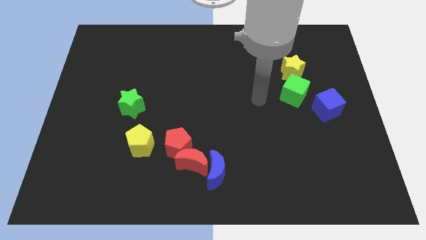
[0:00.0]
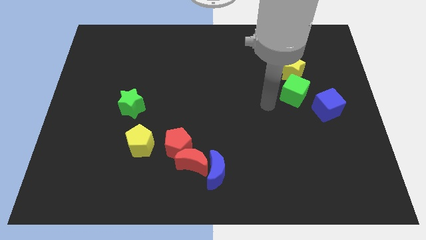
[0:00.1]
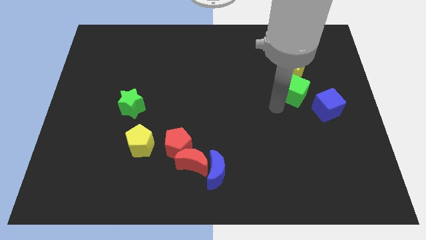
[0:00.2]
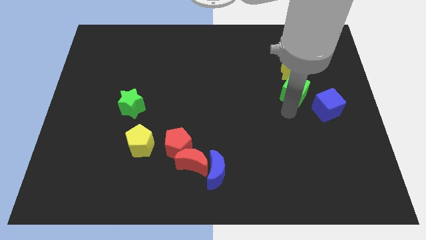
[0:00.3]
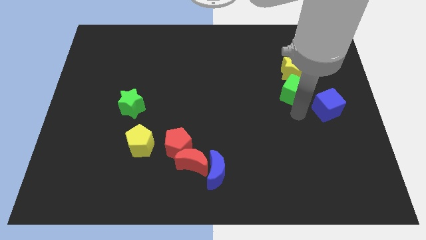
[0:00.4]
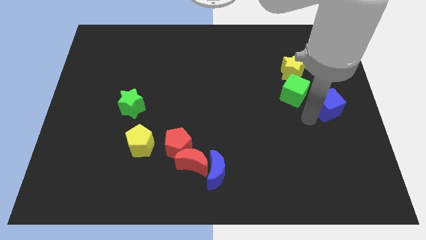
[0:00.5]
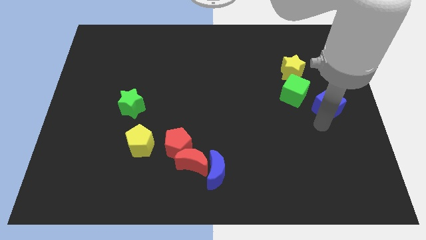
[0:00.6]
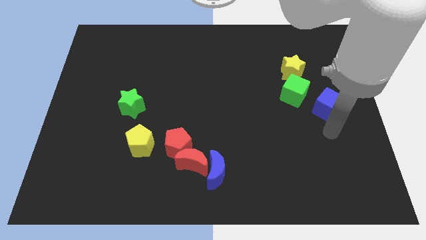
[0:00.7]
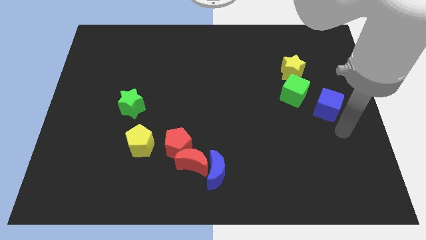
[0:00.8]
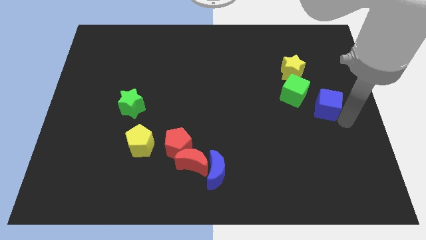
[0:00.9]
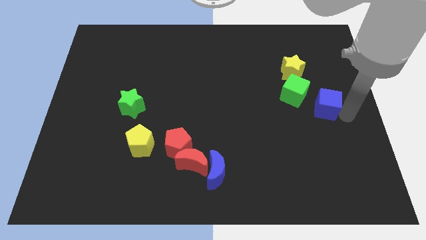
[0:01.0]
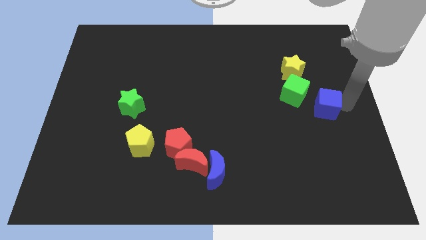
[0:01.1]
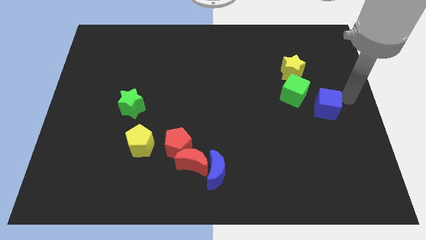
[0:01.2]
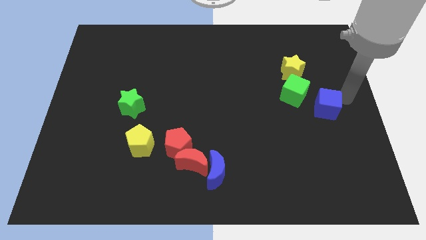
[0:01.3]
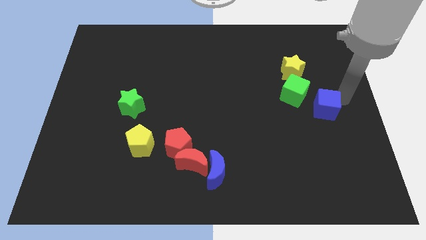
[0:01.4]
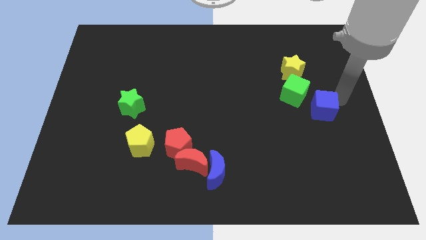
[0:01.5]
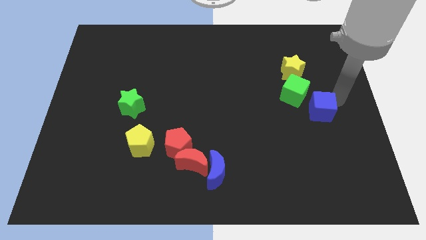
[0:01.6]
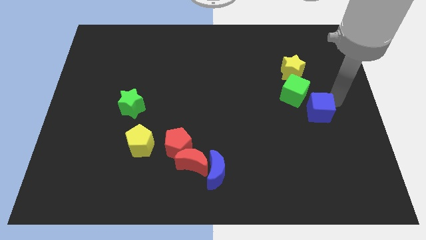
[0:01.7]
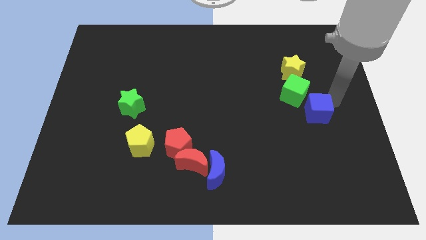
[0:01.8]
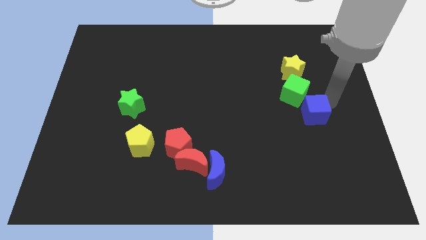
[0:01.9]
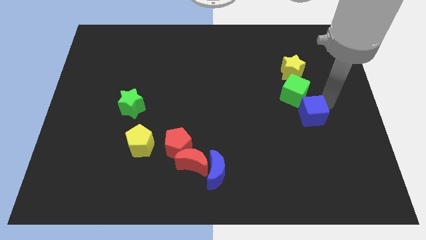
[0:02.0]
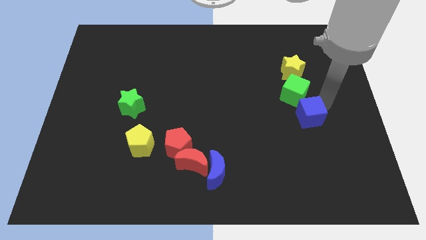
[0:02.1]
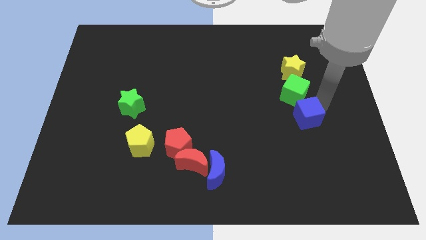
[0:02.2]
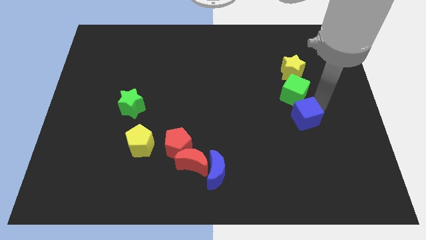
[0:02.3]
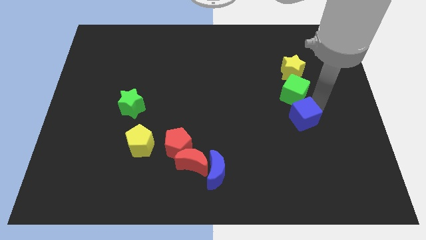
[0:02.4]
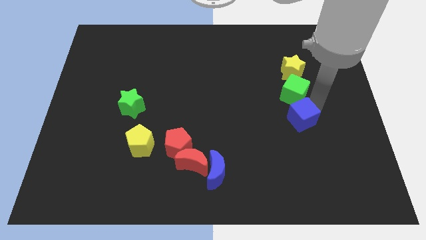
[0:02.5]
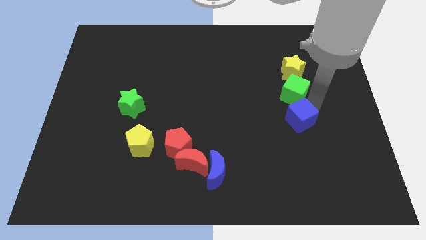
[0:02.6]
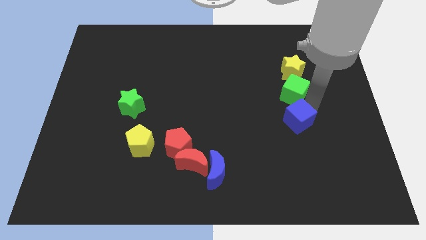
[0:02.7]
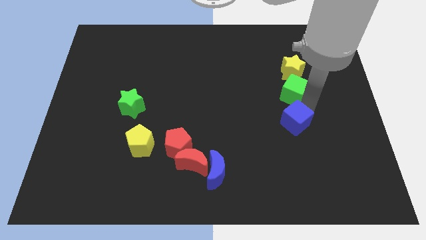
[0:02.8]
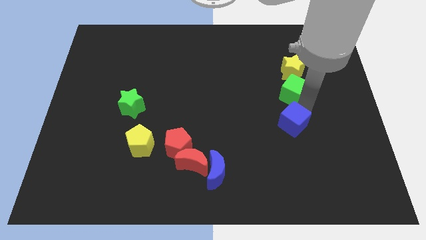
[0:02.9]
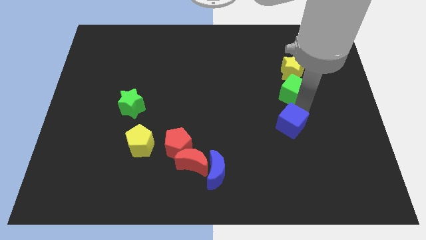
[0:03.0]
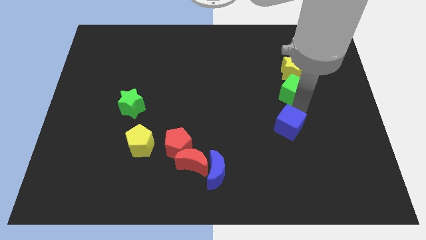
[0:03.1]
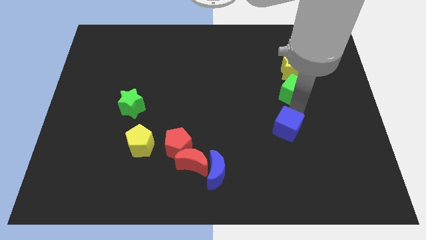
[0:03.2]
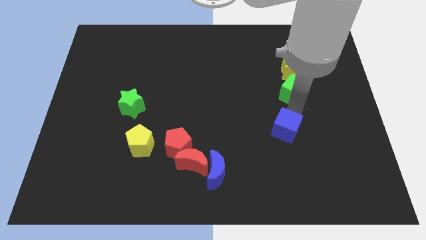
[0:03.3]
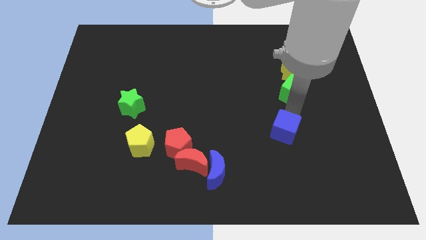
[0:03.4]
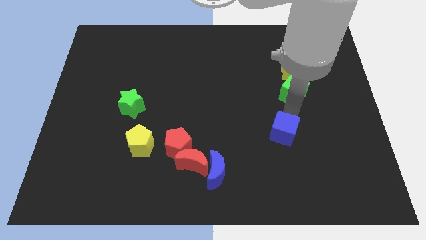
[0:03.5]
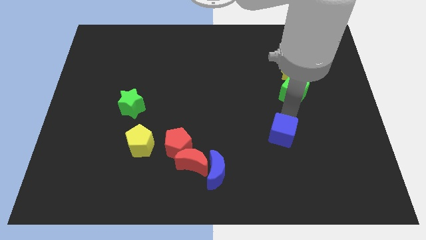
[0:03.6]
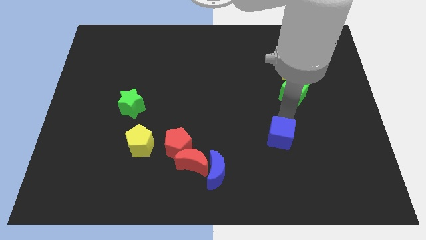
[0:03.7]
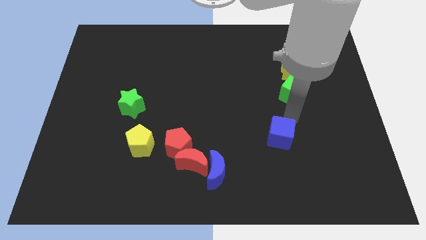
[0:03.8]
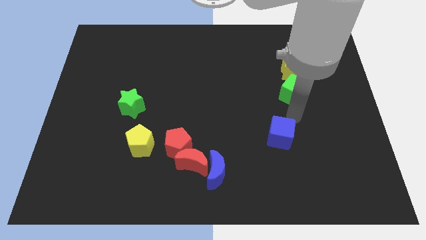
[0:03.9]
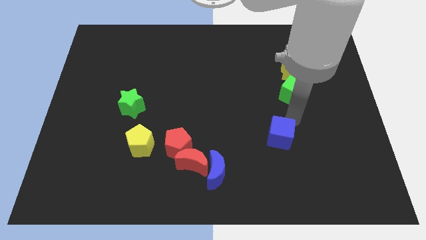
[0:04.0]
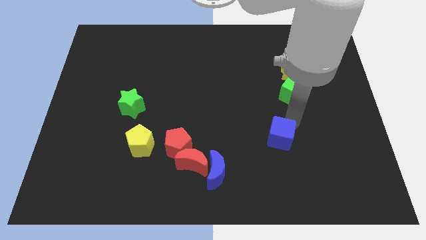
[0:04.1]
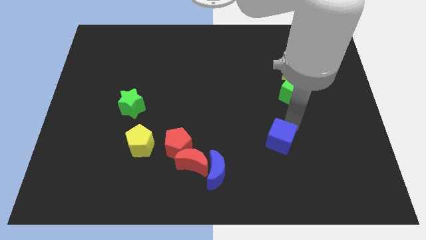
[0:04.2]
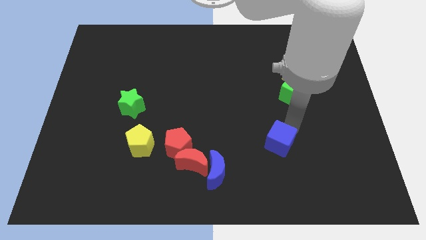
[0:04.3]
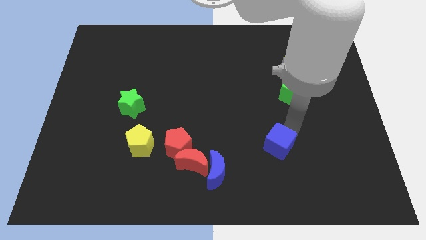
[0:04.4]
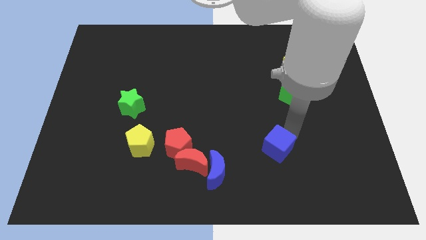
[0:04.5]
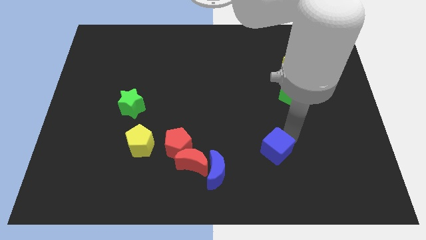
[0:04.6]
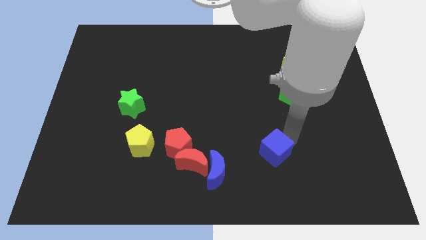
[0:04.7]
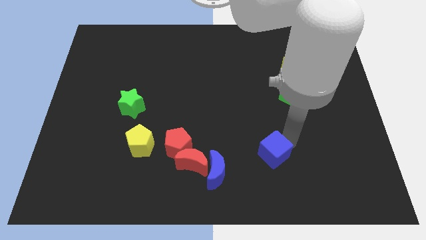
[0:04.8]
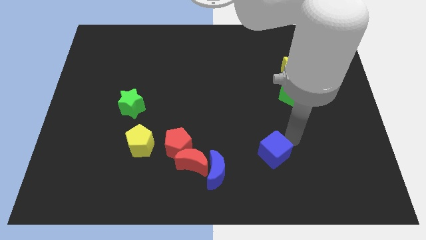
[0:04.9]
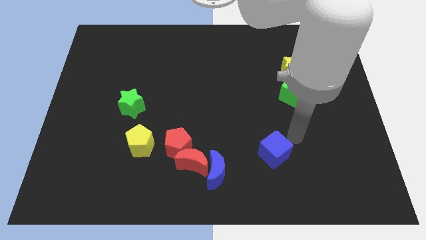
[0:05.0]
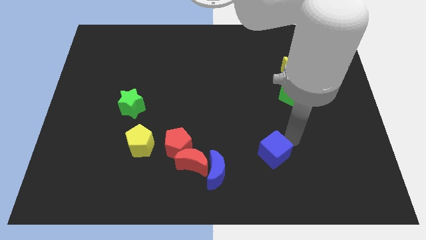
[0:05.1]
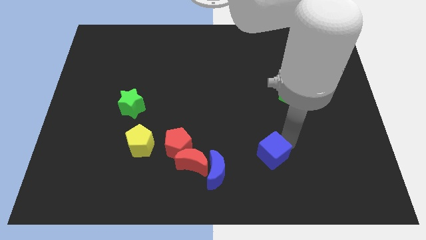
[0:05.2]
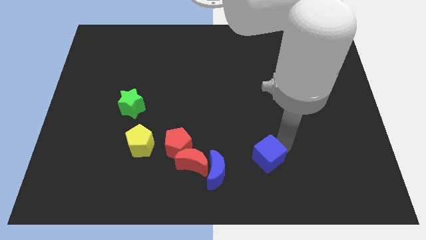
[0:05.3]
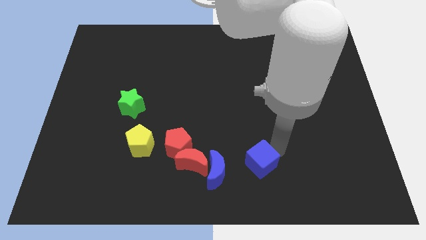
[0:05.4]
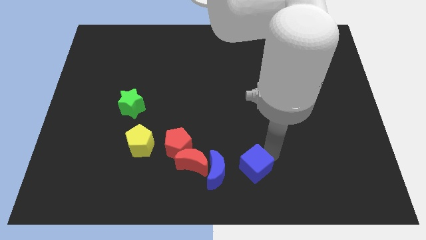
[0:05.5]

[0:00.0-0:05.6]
move the blue cube to the bottom side

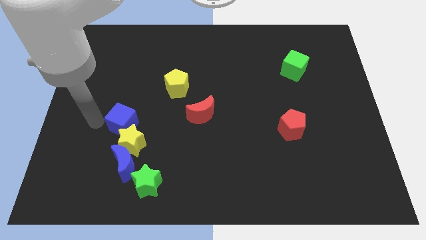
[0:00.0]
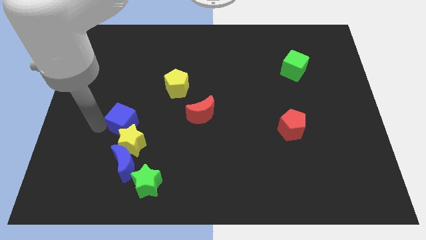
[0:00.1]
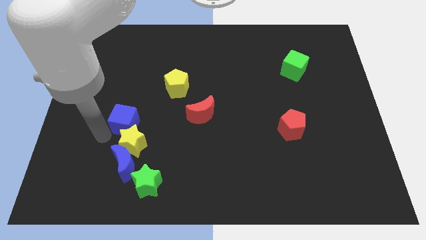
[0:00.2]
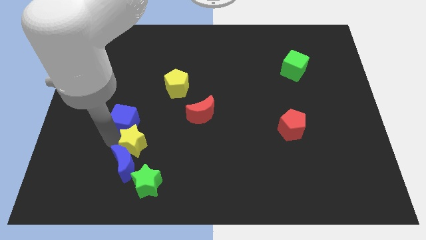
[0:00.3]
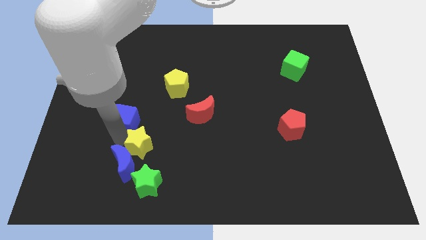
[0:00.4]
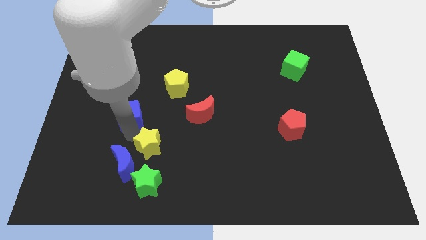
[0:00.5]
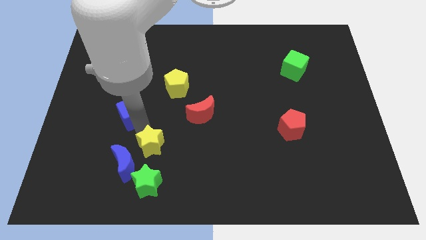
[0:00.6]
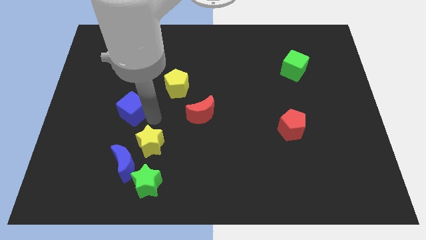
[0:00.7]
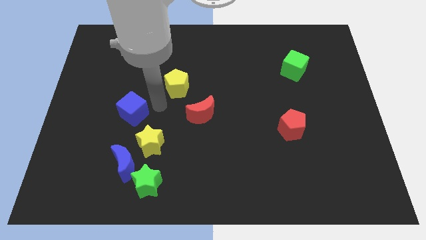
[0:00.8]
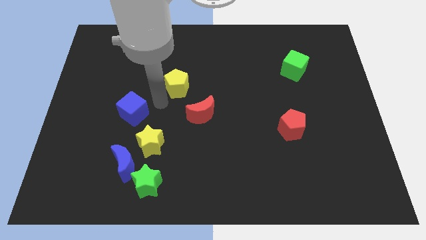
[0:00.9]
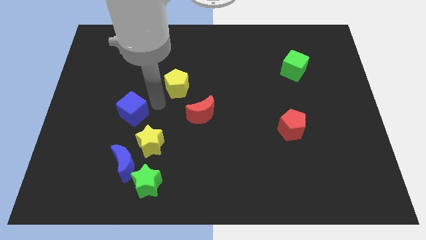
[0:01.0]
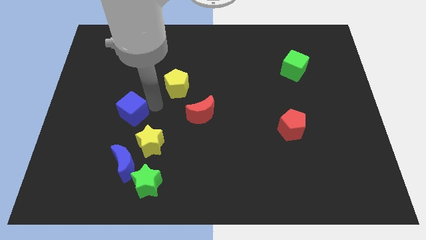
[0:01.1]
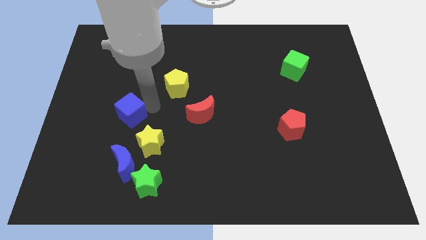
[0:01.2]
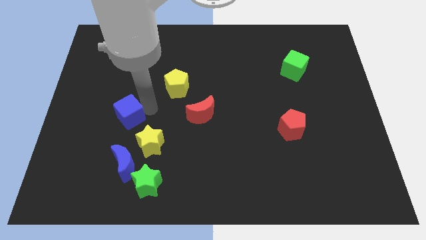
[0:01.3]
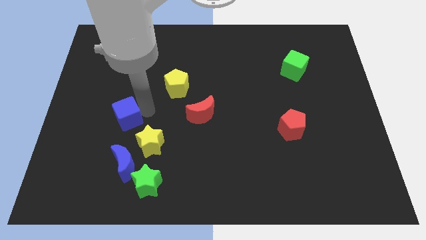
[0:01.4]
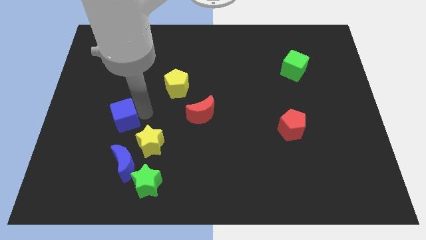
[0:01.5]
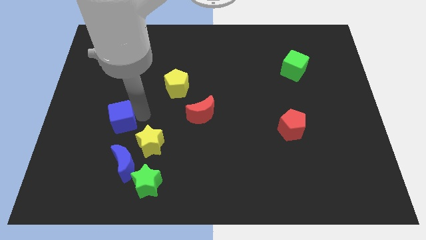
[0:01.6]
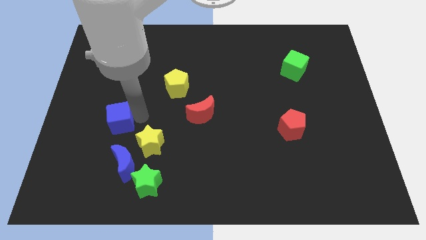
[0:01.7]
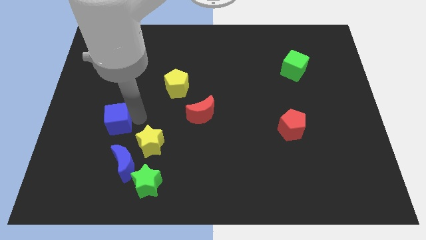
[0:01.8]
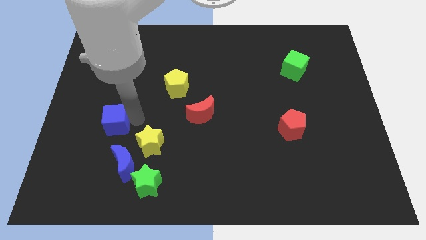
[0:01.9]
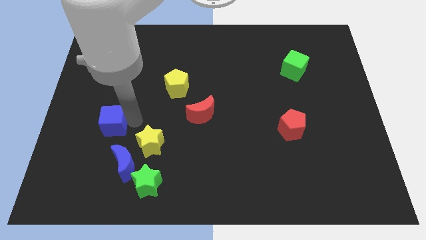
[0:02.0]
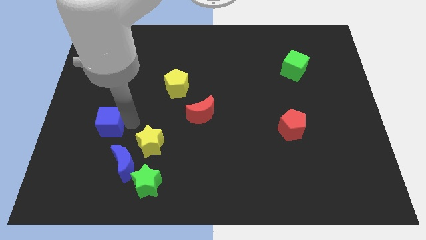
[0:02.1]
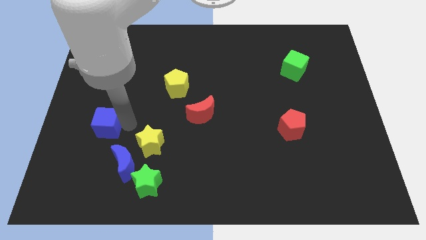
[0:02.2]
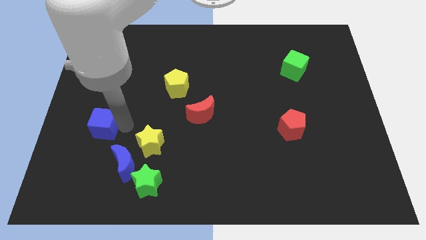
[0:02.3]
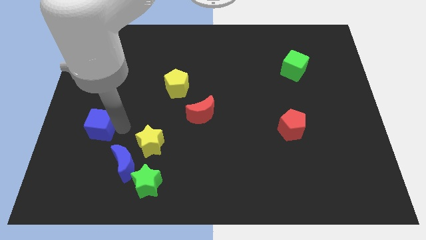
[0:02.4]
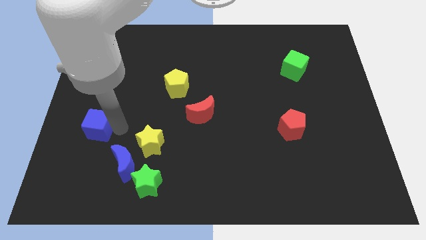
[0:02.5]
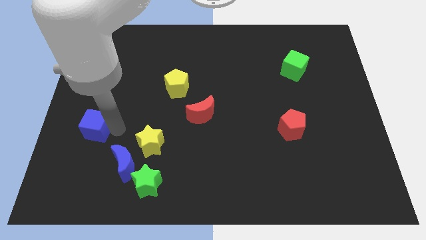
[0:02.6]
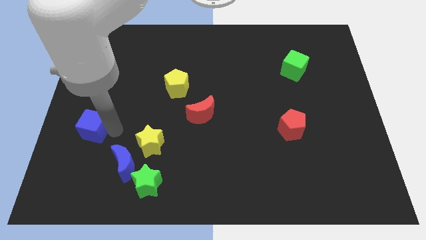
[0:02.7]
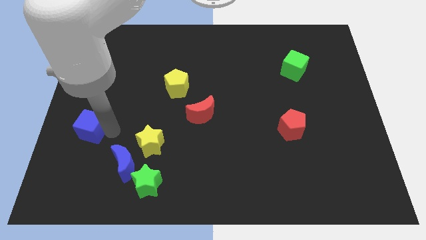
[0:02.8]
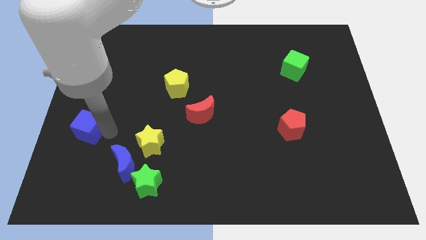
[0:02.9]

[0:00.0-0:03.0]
move the blue cube to the left side
